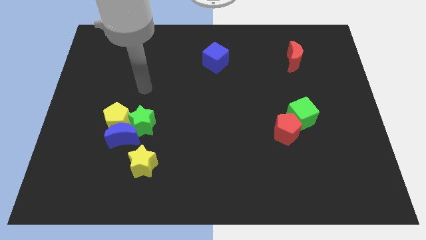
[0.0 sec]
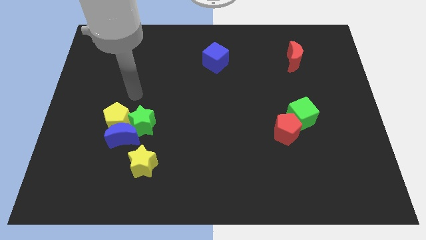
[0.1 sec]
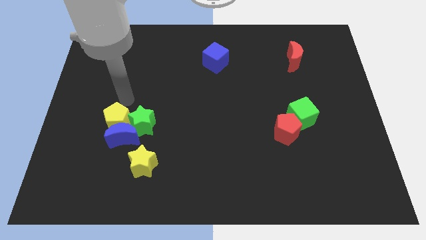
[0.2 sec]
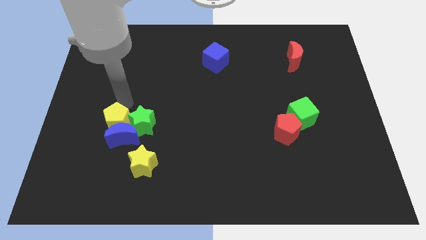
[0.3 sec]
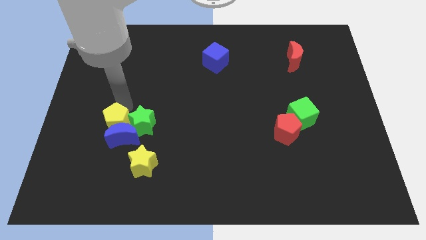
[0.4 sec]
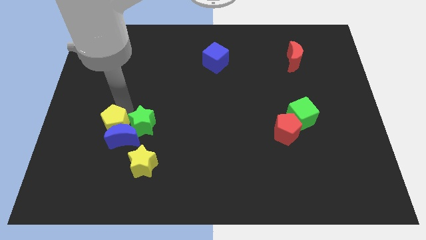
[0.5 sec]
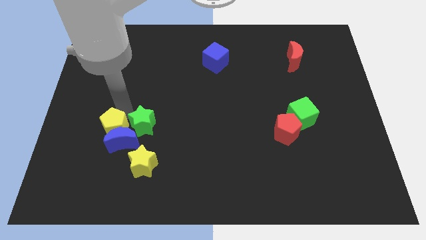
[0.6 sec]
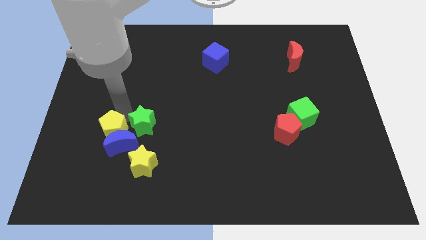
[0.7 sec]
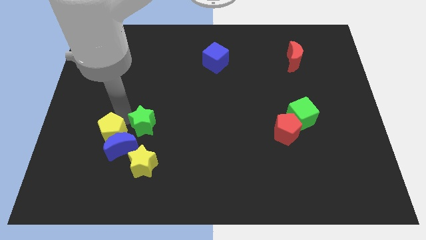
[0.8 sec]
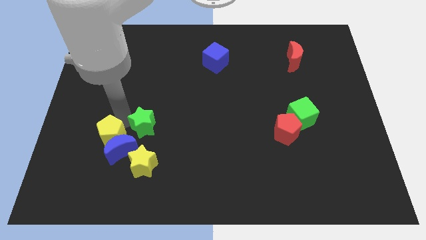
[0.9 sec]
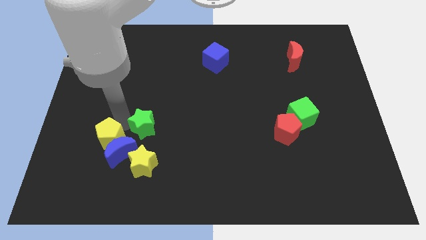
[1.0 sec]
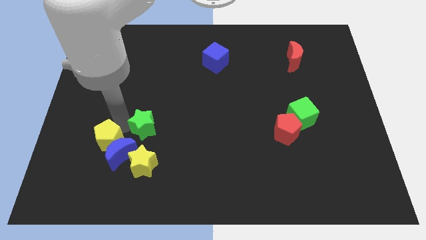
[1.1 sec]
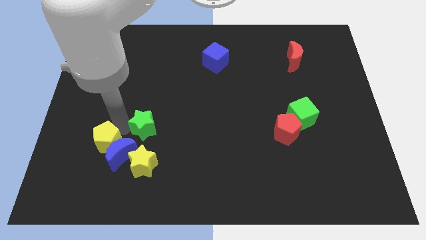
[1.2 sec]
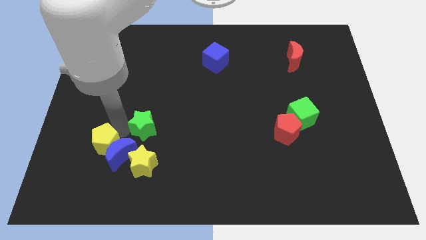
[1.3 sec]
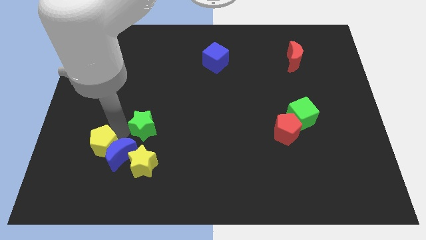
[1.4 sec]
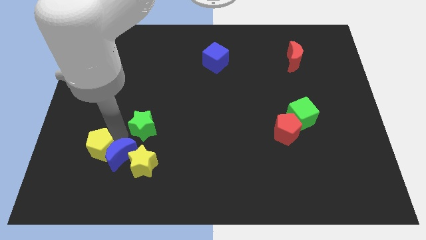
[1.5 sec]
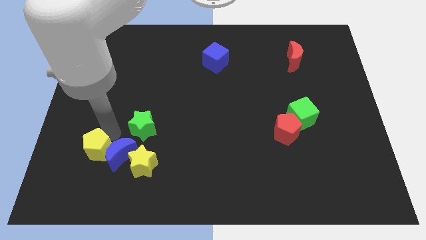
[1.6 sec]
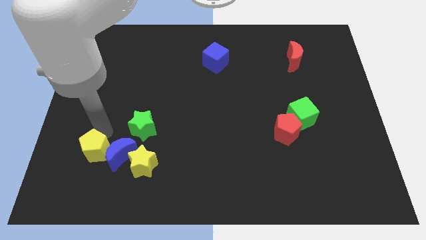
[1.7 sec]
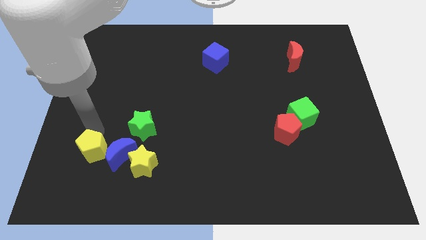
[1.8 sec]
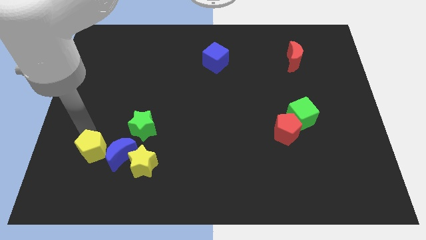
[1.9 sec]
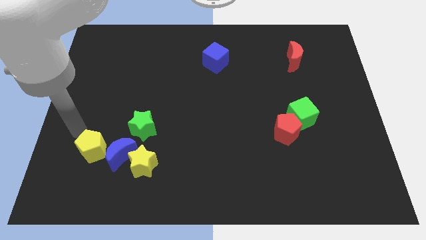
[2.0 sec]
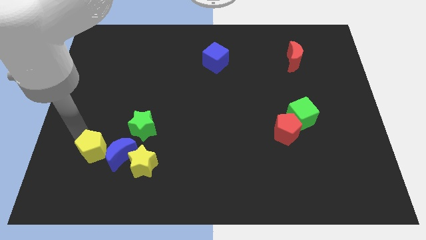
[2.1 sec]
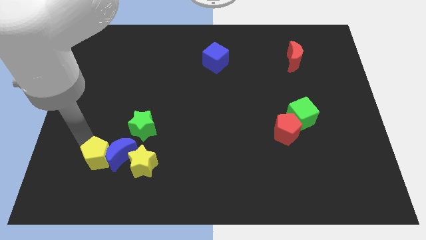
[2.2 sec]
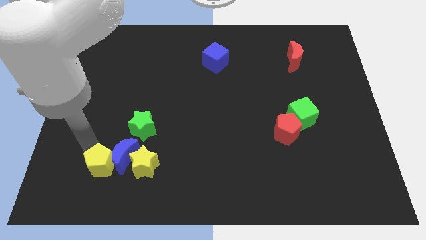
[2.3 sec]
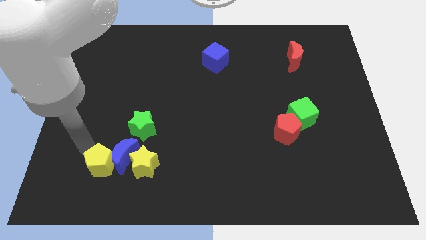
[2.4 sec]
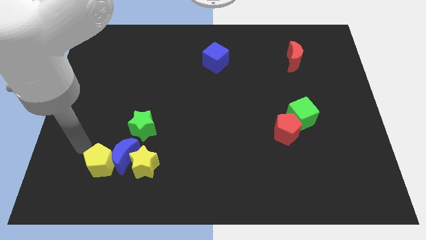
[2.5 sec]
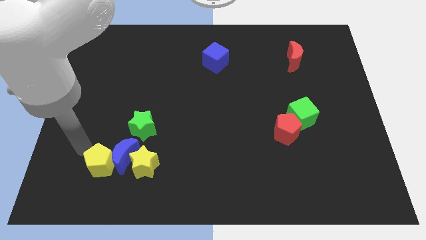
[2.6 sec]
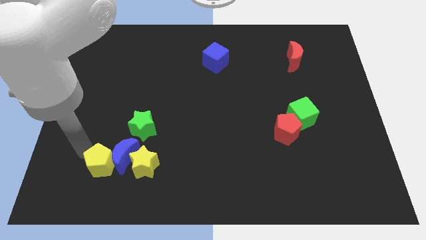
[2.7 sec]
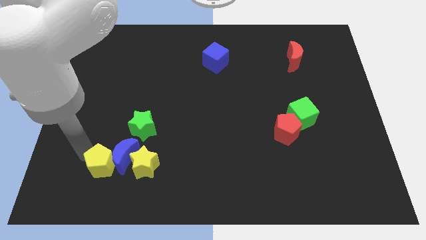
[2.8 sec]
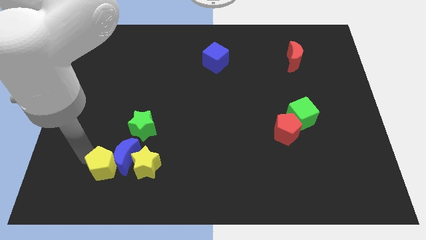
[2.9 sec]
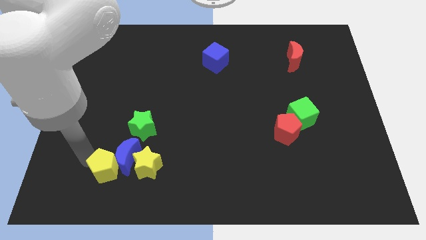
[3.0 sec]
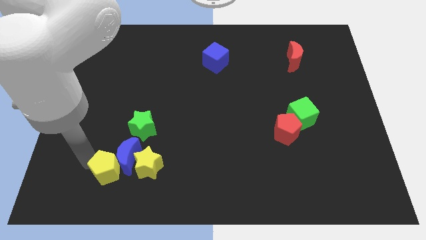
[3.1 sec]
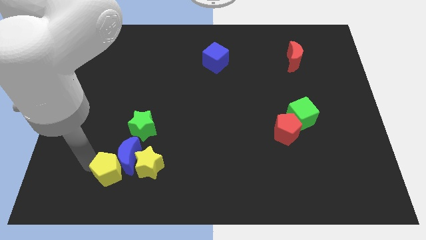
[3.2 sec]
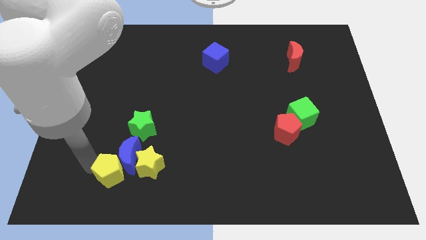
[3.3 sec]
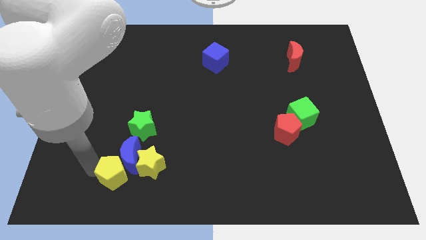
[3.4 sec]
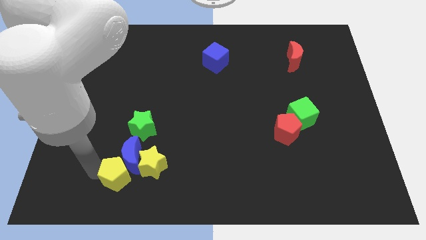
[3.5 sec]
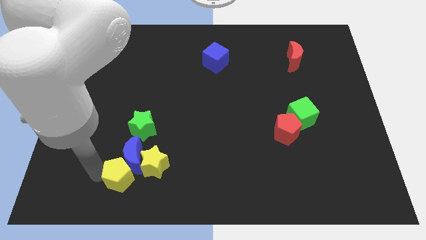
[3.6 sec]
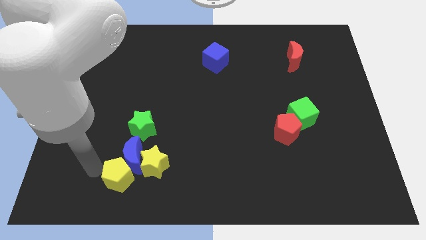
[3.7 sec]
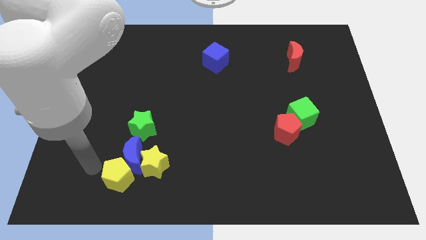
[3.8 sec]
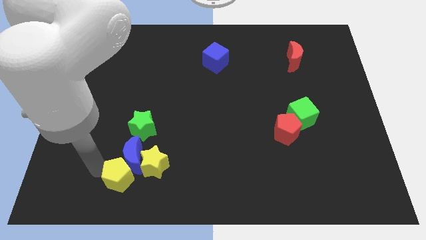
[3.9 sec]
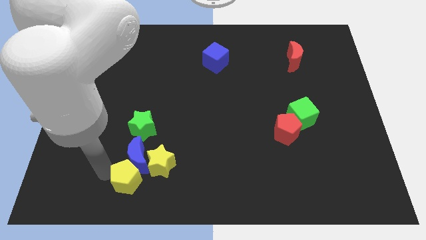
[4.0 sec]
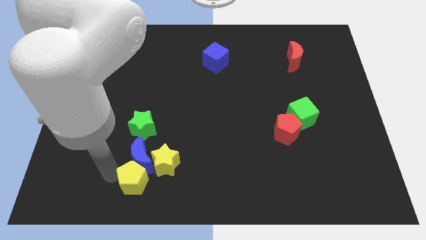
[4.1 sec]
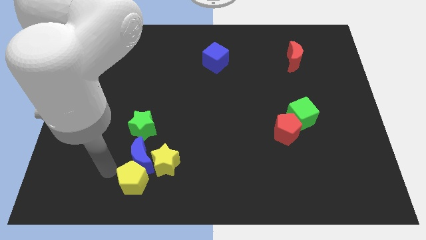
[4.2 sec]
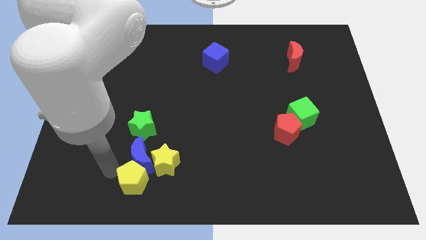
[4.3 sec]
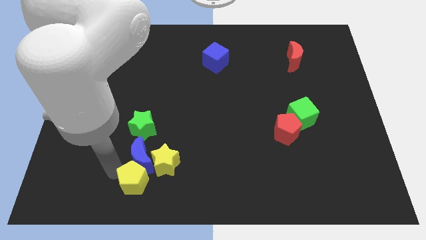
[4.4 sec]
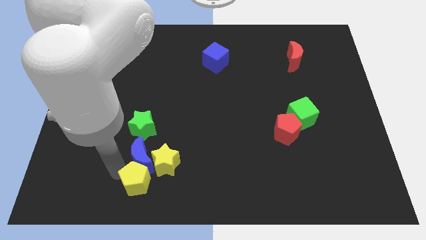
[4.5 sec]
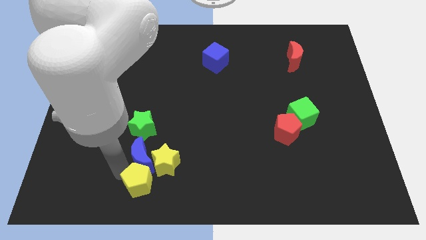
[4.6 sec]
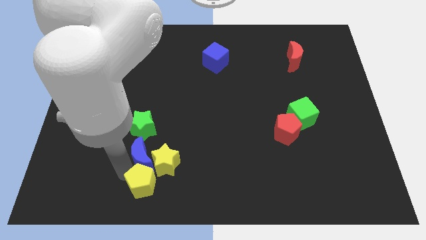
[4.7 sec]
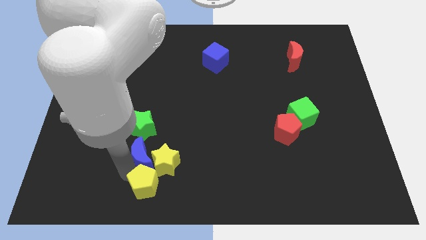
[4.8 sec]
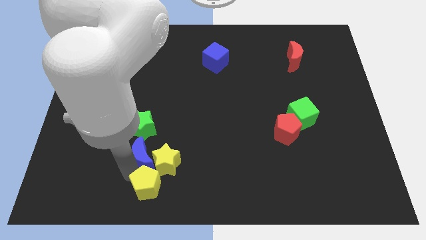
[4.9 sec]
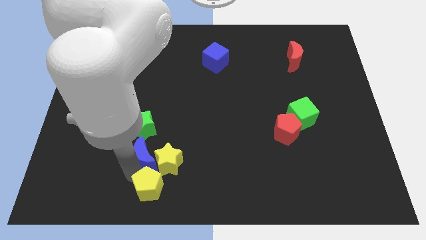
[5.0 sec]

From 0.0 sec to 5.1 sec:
push the yellow pentagon to the bottom side

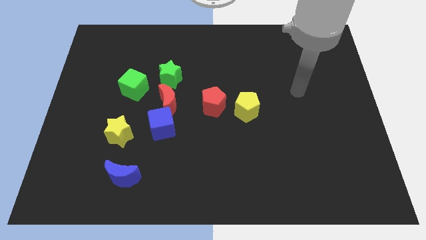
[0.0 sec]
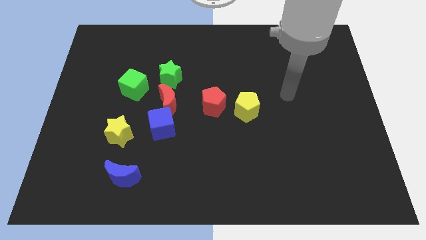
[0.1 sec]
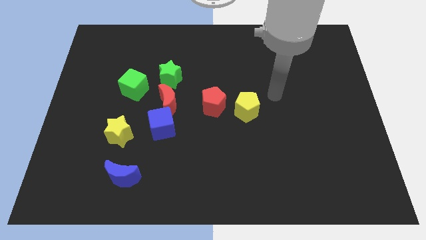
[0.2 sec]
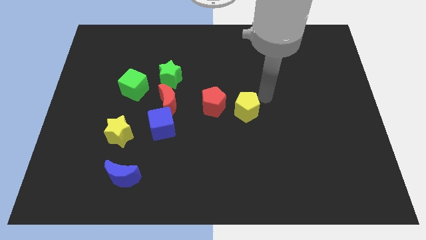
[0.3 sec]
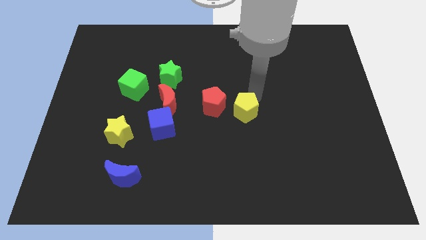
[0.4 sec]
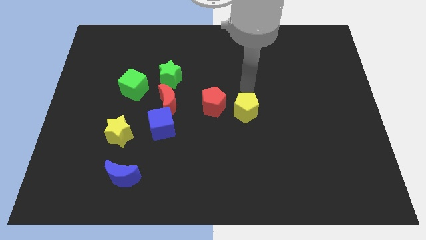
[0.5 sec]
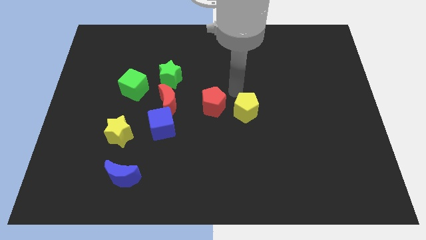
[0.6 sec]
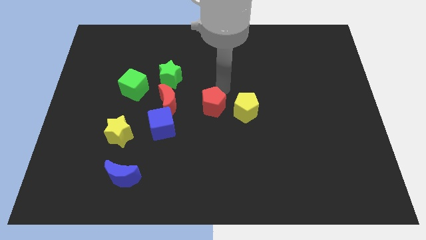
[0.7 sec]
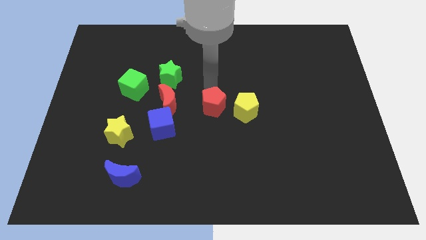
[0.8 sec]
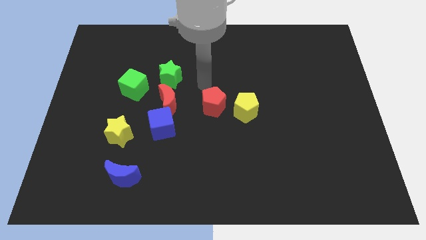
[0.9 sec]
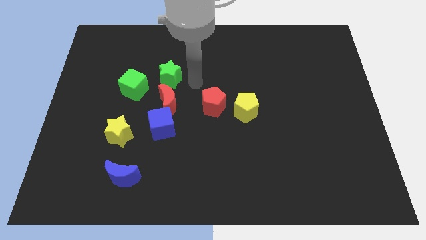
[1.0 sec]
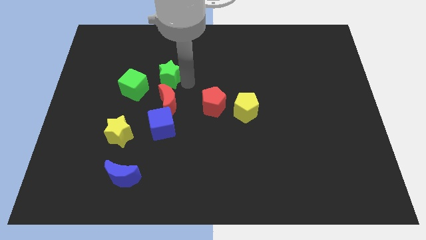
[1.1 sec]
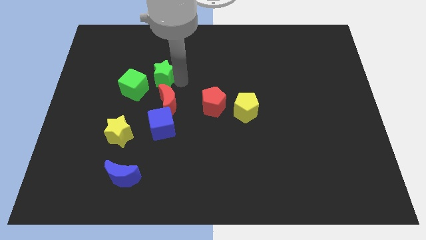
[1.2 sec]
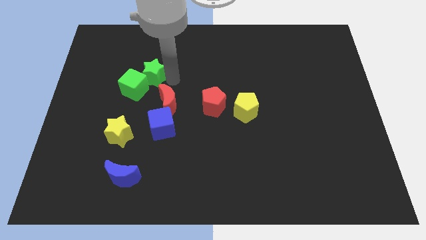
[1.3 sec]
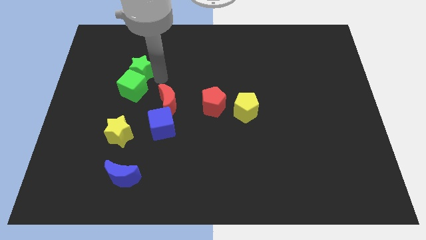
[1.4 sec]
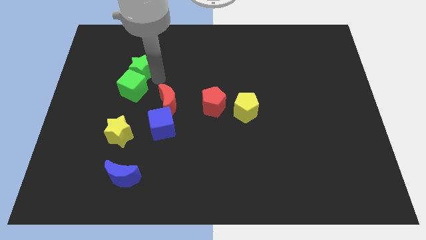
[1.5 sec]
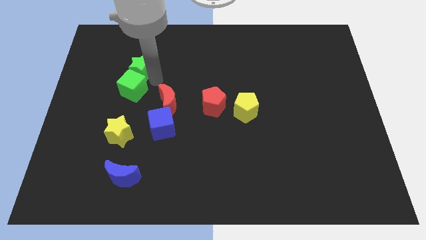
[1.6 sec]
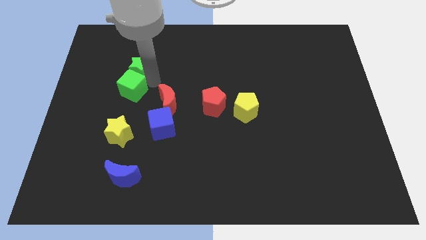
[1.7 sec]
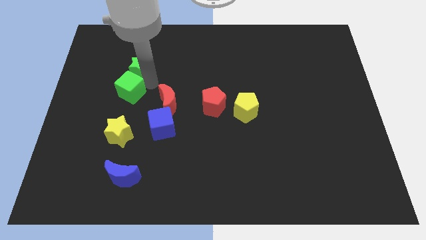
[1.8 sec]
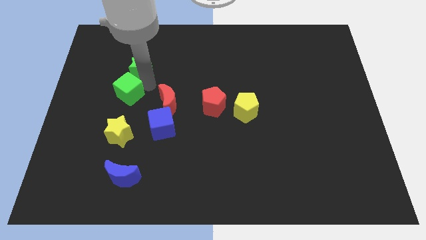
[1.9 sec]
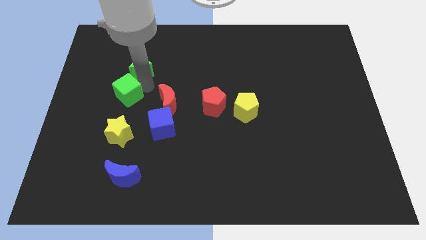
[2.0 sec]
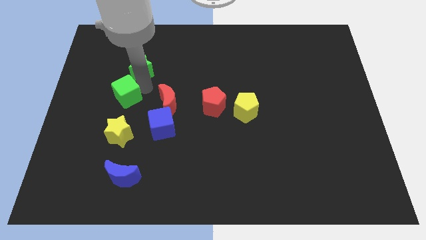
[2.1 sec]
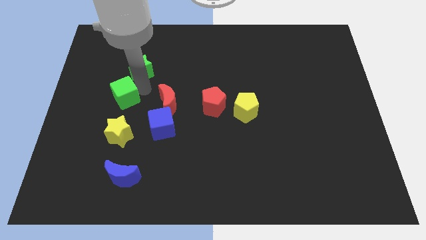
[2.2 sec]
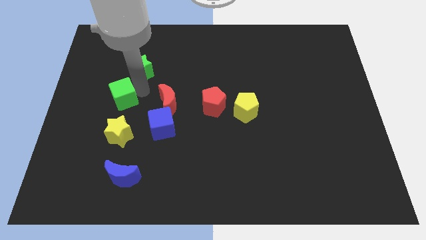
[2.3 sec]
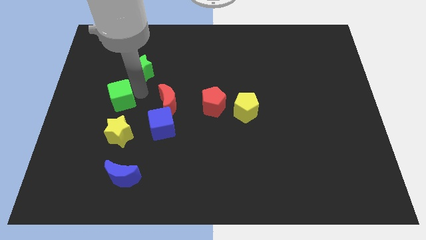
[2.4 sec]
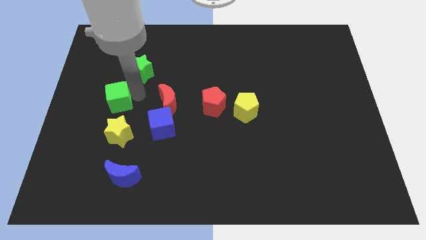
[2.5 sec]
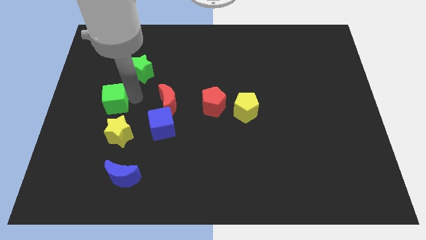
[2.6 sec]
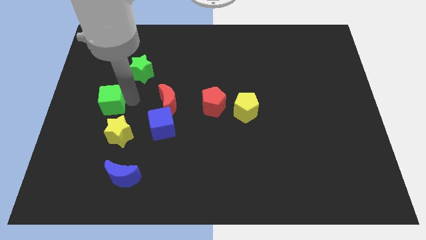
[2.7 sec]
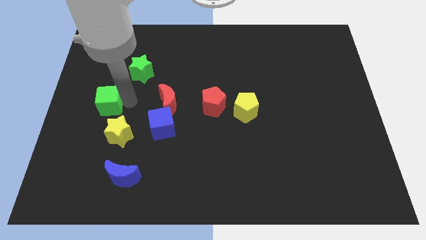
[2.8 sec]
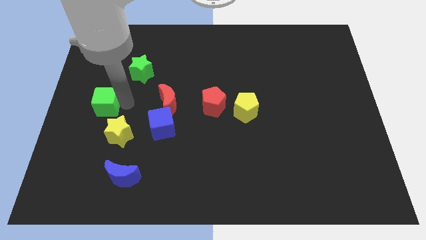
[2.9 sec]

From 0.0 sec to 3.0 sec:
move the green cube to the center left

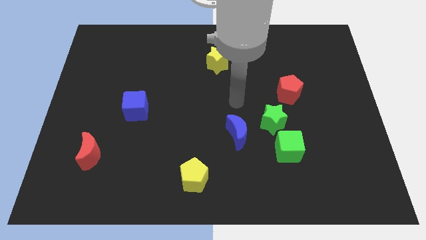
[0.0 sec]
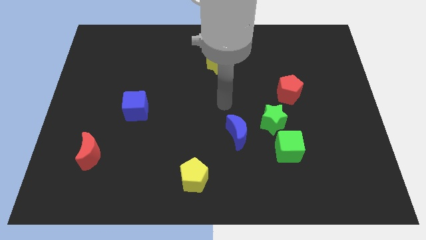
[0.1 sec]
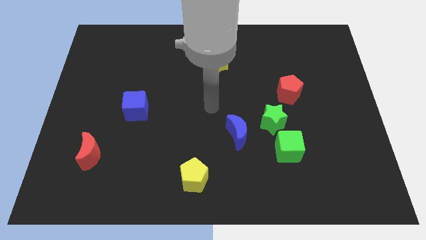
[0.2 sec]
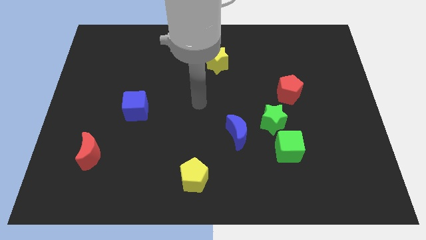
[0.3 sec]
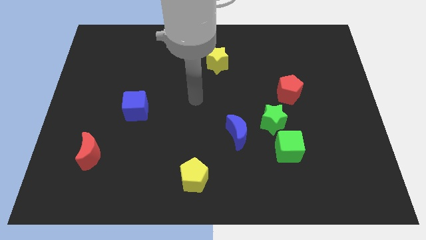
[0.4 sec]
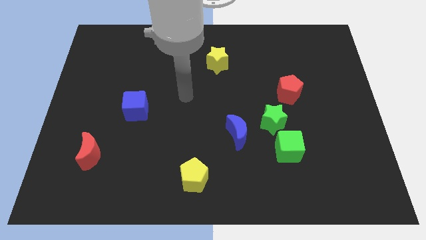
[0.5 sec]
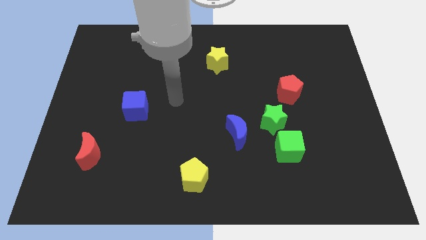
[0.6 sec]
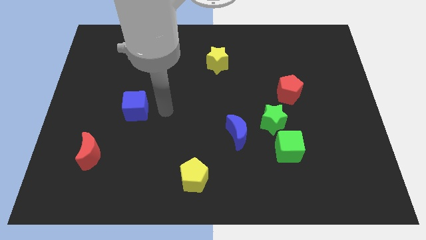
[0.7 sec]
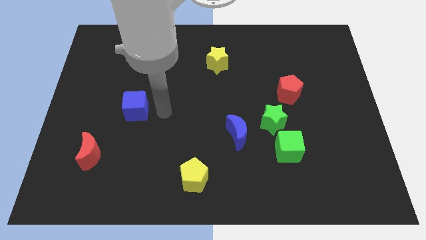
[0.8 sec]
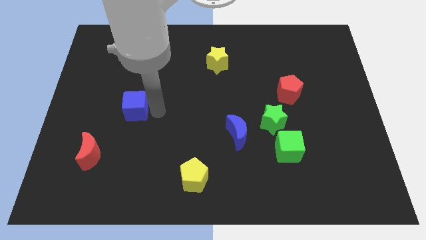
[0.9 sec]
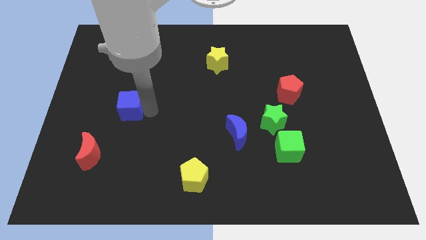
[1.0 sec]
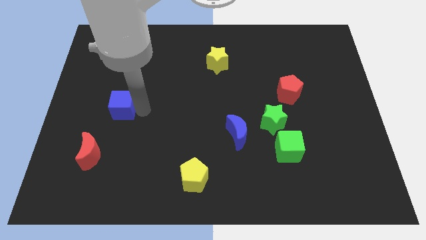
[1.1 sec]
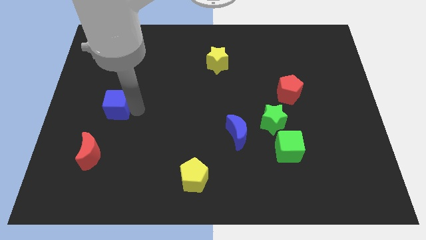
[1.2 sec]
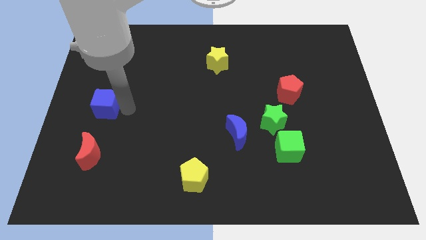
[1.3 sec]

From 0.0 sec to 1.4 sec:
put the blue cube to the left side of the board
